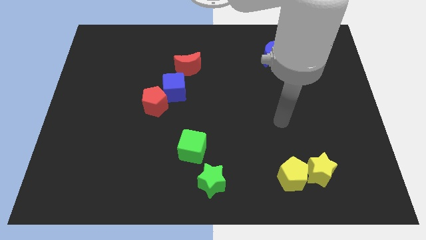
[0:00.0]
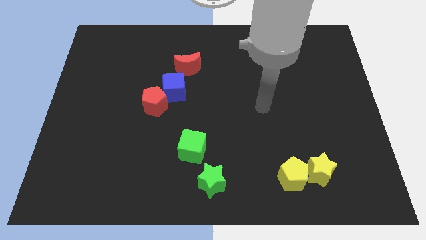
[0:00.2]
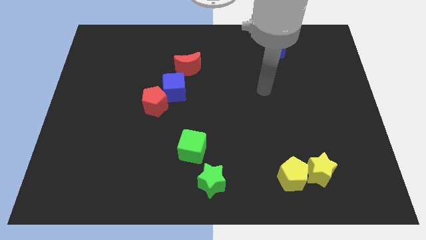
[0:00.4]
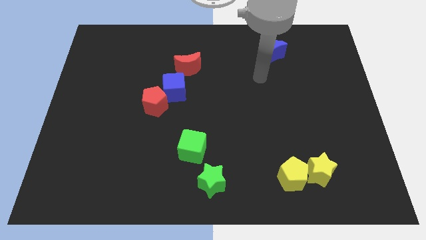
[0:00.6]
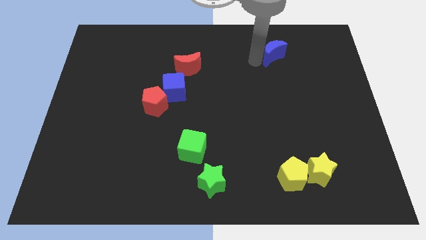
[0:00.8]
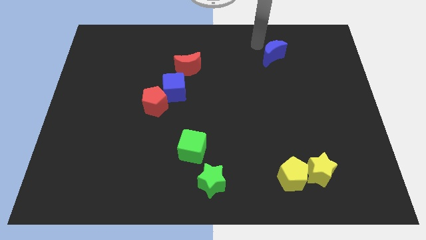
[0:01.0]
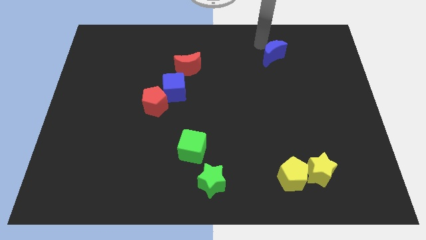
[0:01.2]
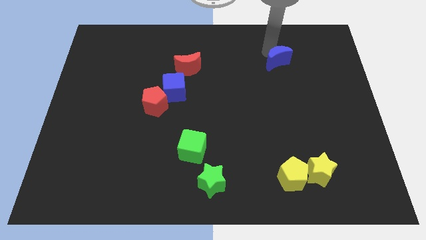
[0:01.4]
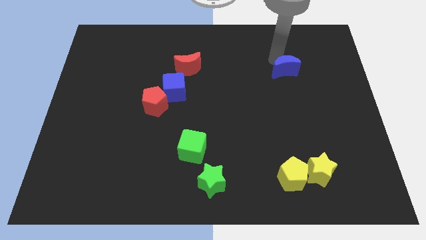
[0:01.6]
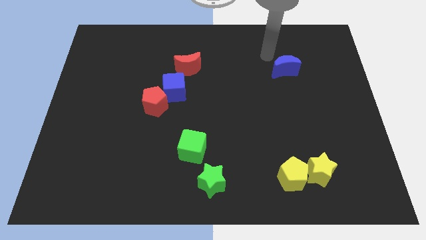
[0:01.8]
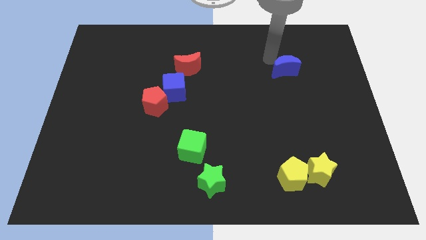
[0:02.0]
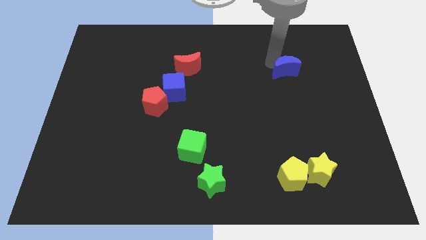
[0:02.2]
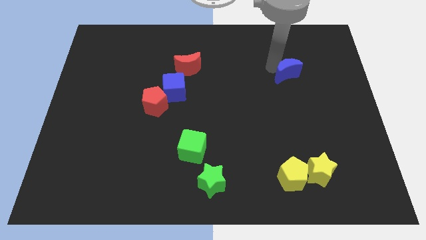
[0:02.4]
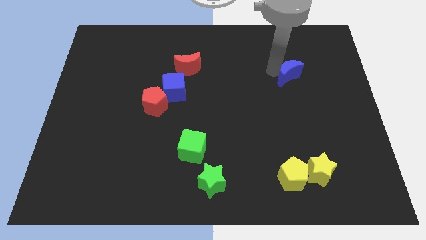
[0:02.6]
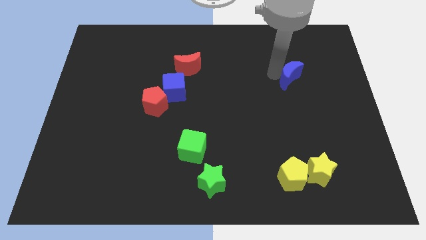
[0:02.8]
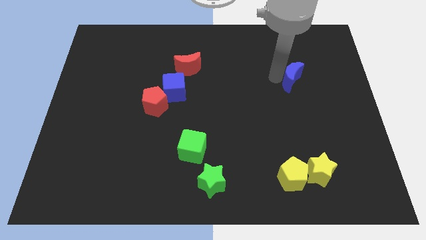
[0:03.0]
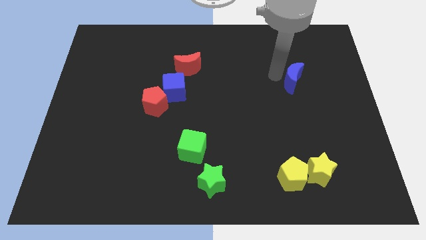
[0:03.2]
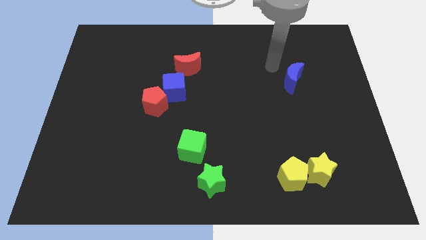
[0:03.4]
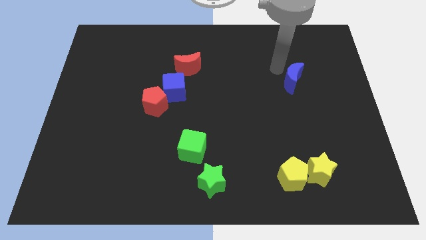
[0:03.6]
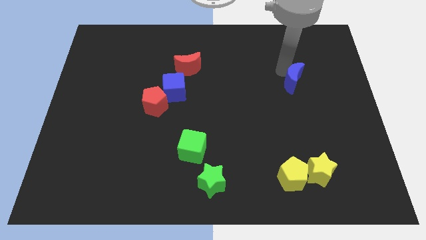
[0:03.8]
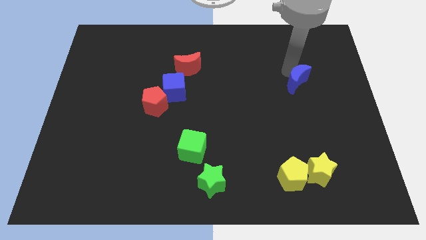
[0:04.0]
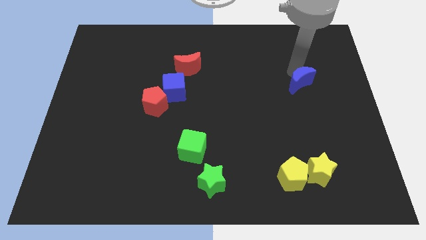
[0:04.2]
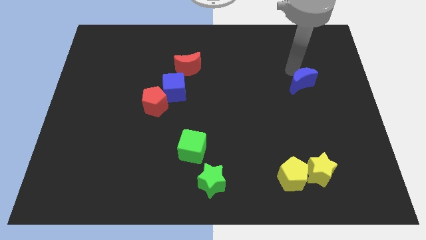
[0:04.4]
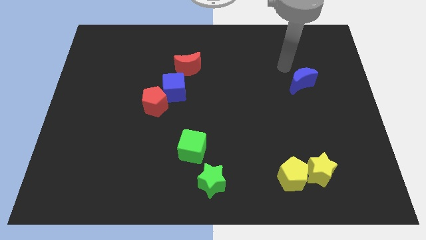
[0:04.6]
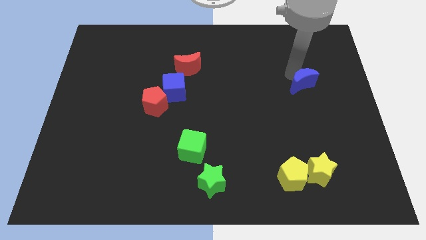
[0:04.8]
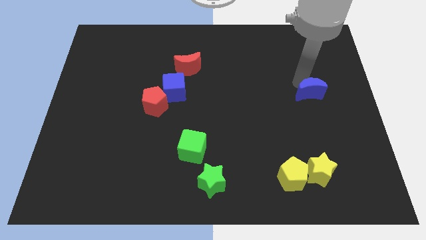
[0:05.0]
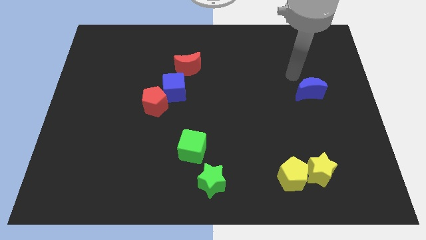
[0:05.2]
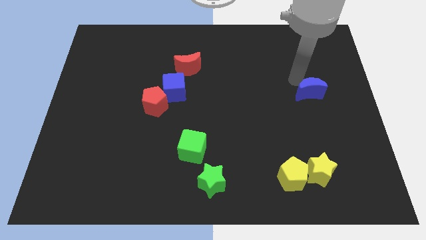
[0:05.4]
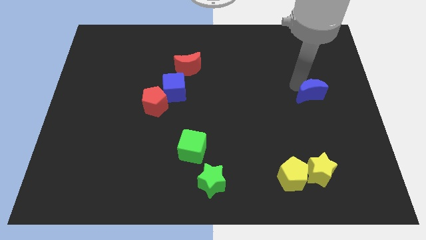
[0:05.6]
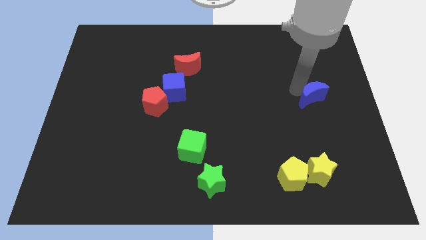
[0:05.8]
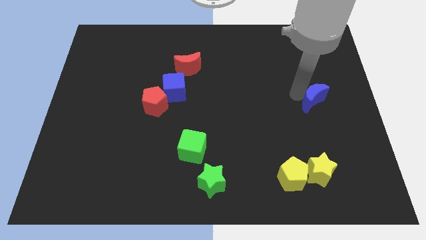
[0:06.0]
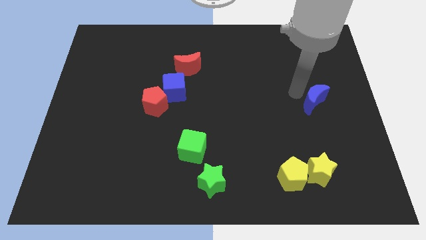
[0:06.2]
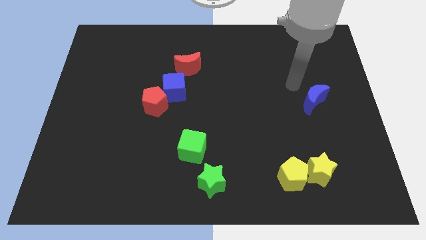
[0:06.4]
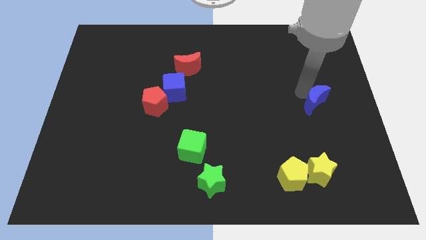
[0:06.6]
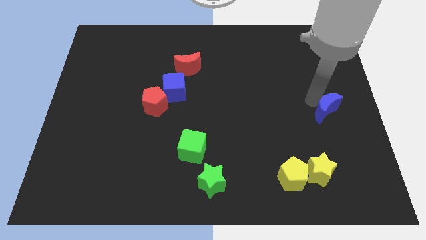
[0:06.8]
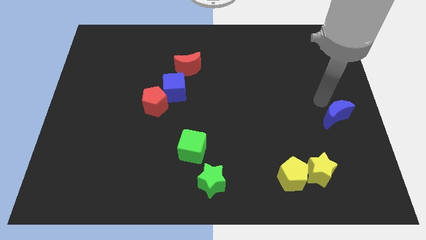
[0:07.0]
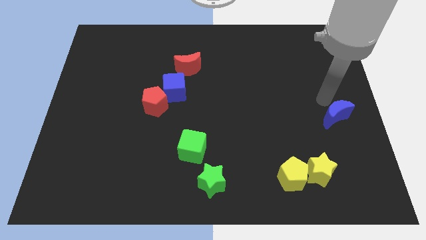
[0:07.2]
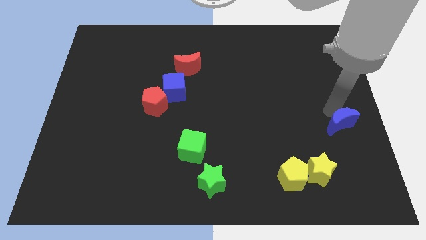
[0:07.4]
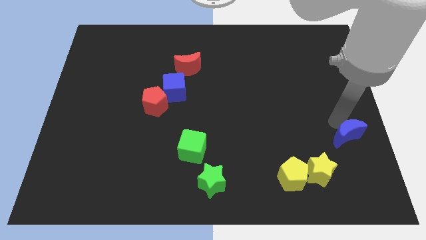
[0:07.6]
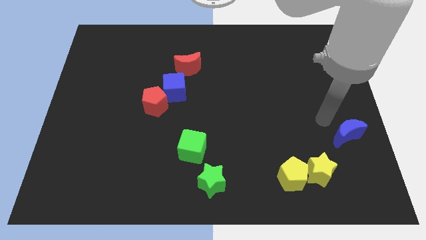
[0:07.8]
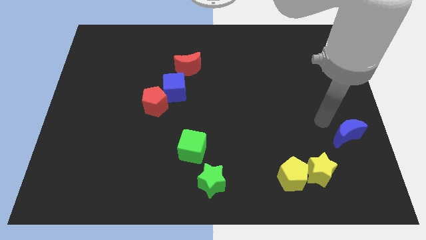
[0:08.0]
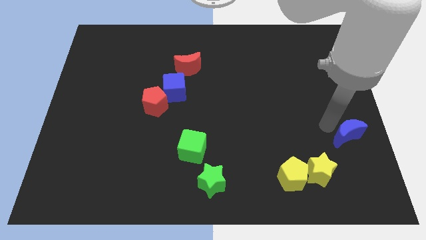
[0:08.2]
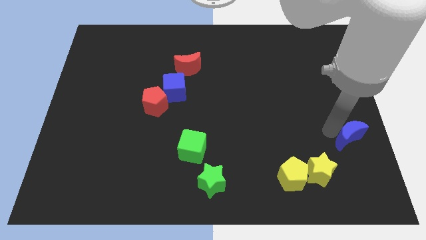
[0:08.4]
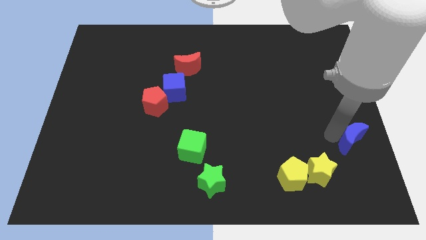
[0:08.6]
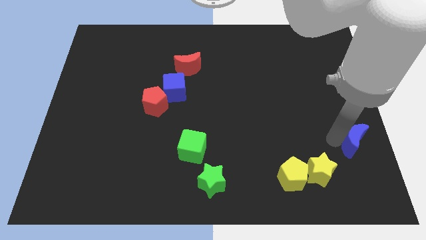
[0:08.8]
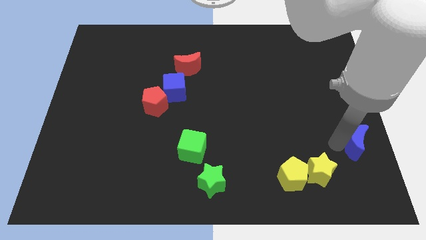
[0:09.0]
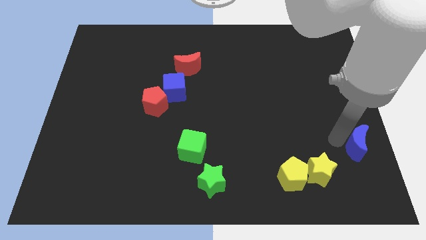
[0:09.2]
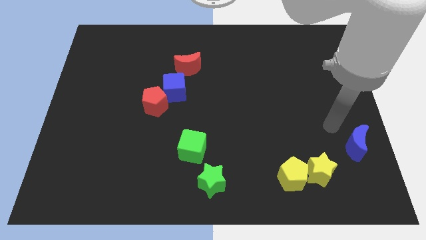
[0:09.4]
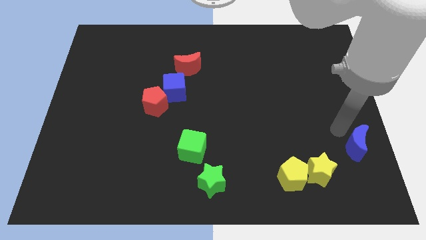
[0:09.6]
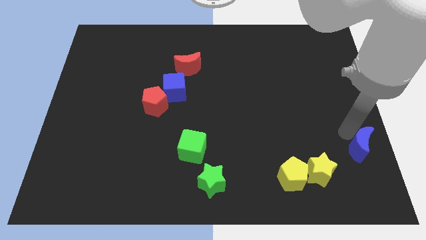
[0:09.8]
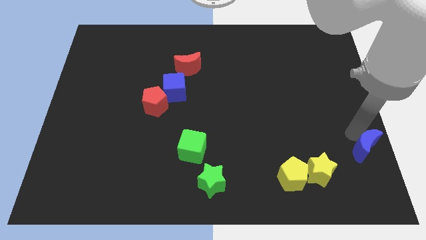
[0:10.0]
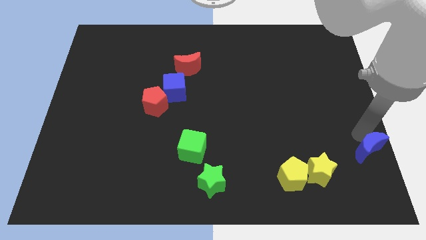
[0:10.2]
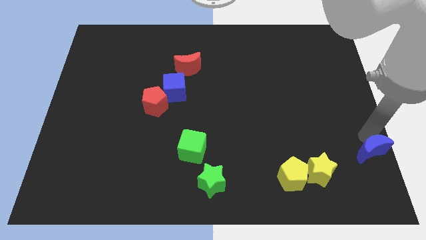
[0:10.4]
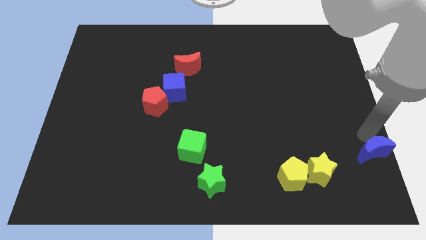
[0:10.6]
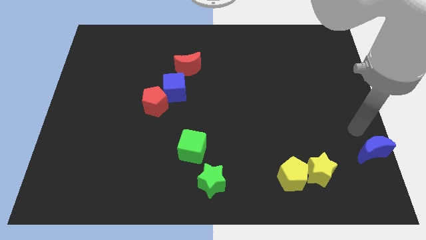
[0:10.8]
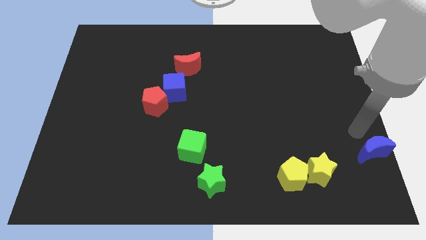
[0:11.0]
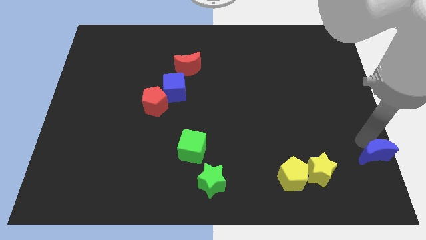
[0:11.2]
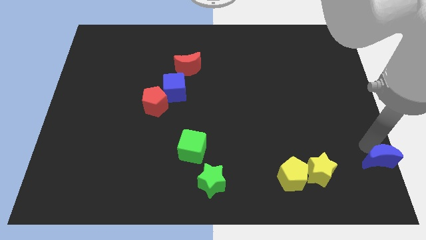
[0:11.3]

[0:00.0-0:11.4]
move the blue moon to the lower right corner
